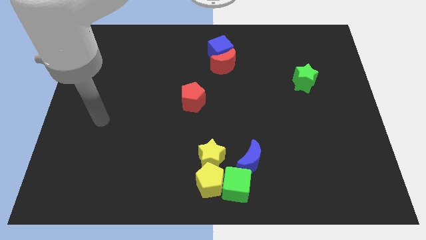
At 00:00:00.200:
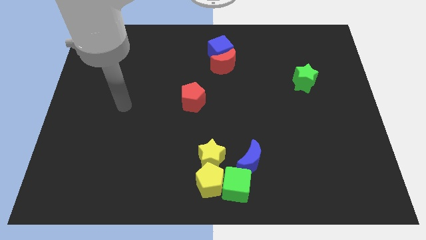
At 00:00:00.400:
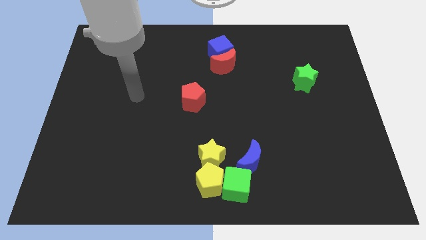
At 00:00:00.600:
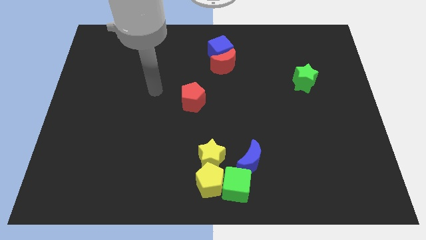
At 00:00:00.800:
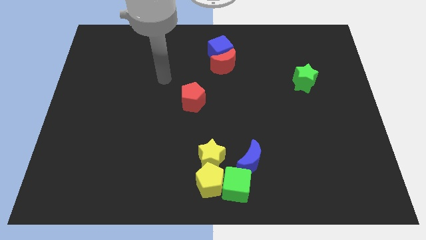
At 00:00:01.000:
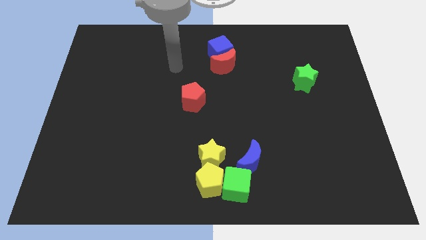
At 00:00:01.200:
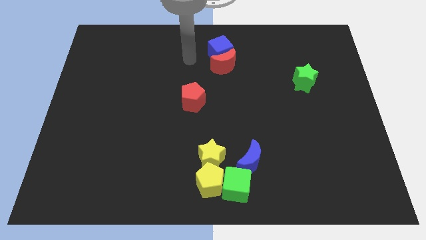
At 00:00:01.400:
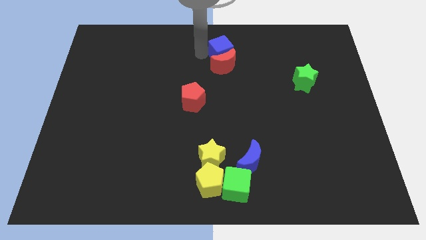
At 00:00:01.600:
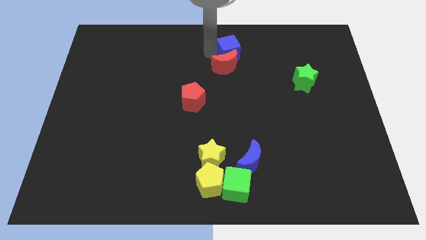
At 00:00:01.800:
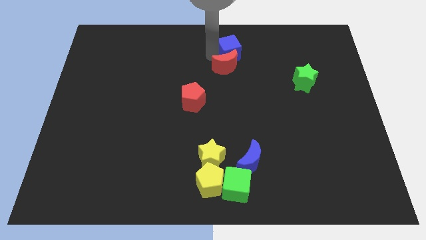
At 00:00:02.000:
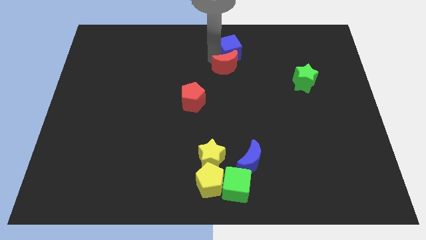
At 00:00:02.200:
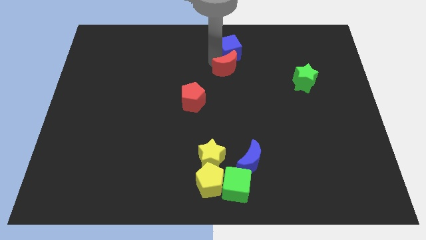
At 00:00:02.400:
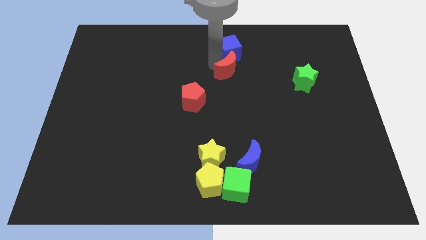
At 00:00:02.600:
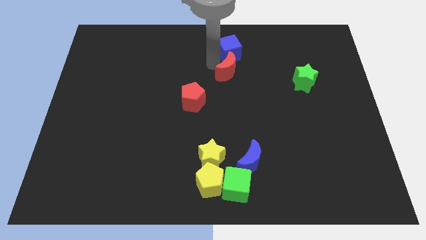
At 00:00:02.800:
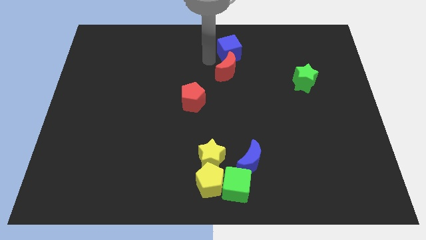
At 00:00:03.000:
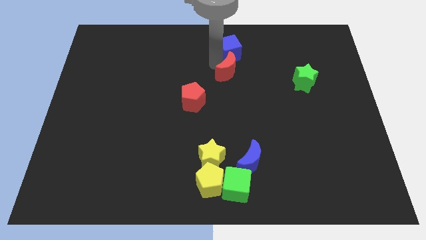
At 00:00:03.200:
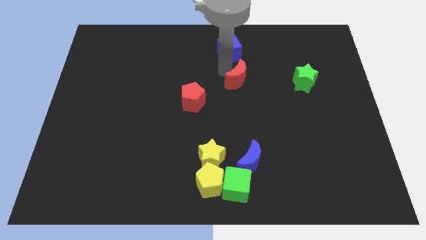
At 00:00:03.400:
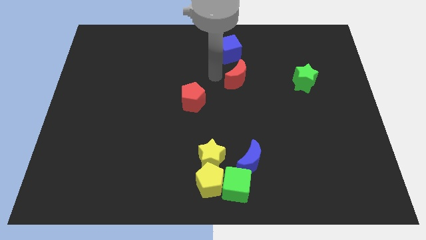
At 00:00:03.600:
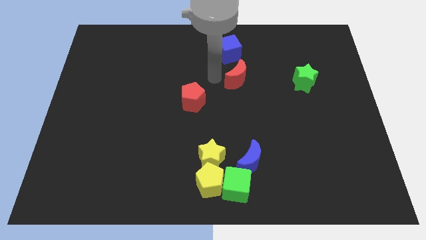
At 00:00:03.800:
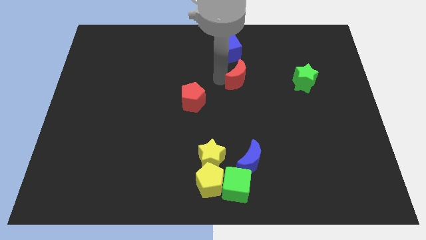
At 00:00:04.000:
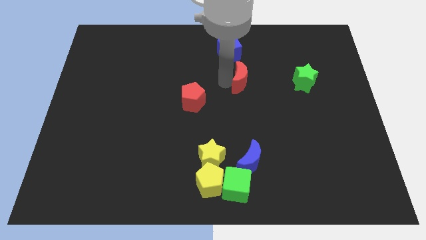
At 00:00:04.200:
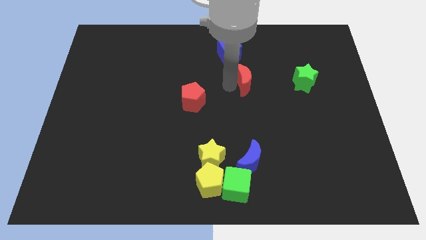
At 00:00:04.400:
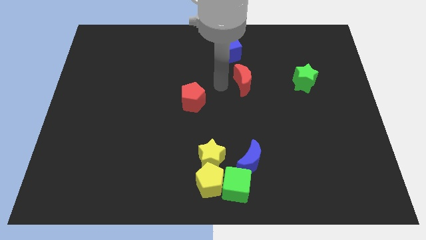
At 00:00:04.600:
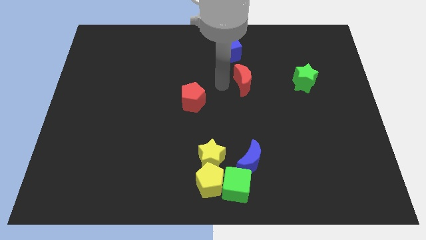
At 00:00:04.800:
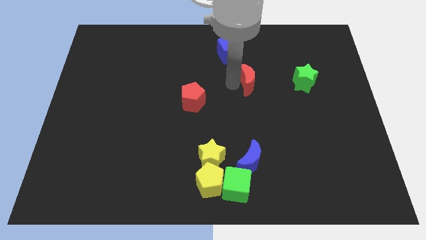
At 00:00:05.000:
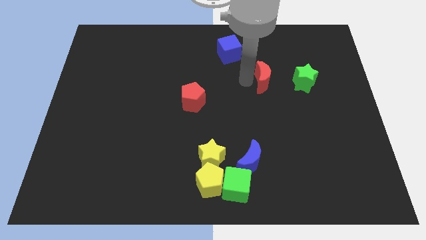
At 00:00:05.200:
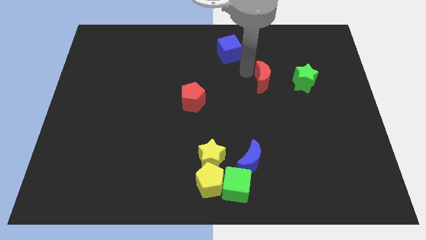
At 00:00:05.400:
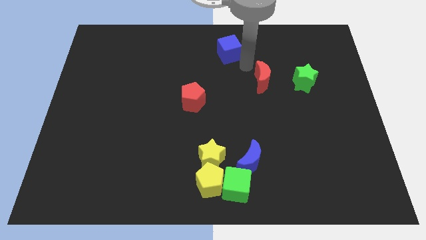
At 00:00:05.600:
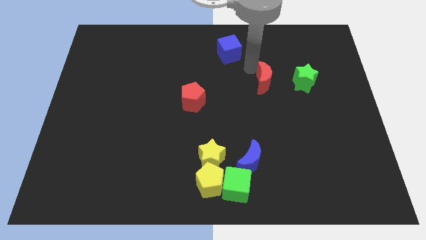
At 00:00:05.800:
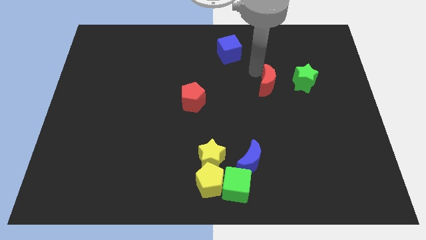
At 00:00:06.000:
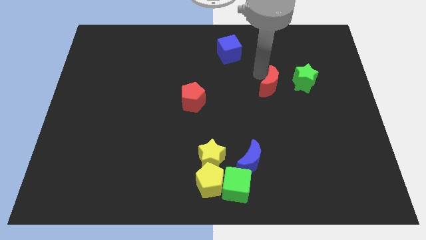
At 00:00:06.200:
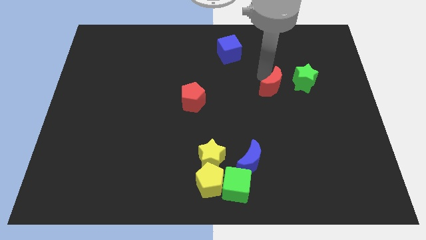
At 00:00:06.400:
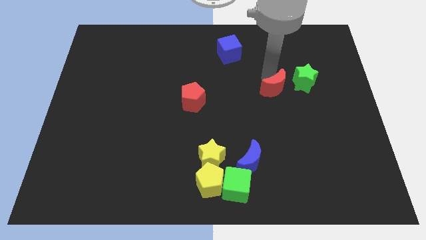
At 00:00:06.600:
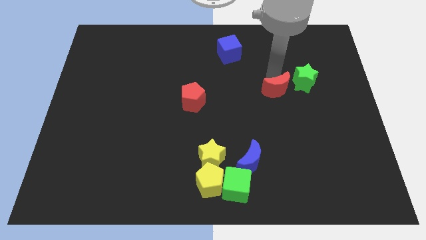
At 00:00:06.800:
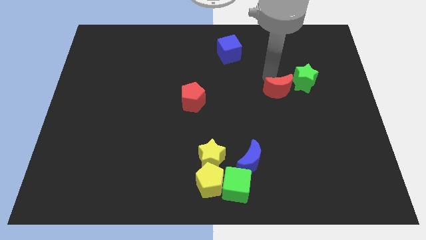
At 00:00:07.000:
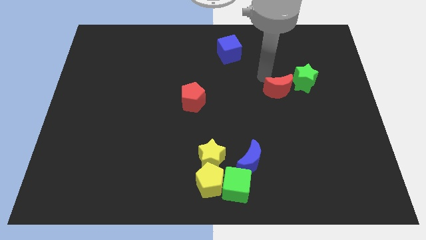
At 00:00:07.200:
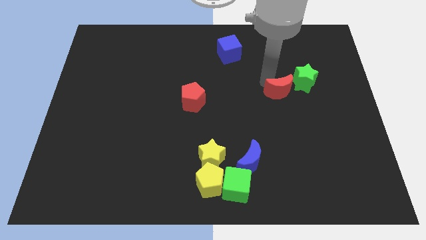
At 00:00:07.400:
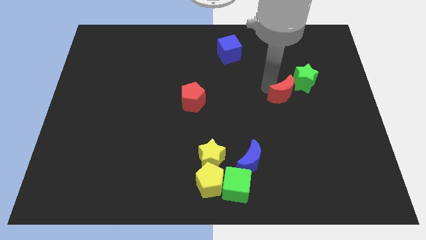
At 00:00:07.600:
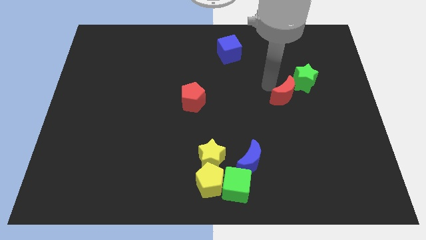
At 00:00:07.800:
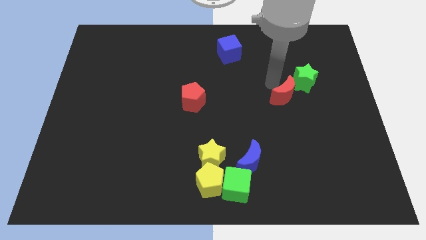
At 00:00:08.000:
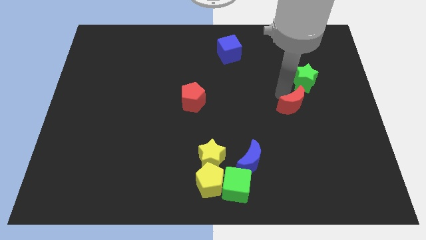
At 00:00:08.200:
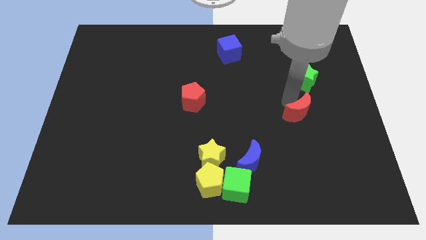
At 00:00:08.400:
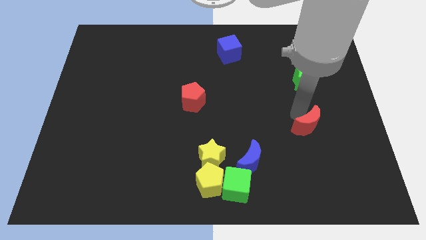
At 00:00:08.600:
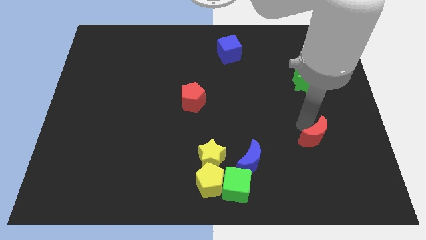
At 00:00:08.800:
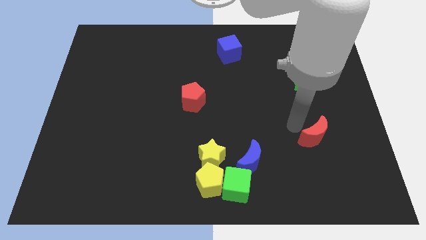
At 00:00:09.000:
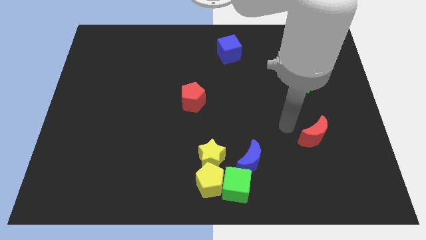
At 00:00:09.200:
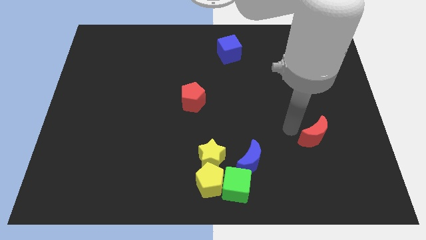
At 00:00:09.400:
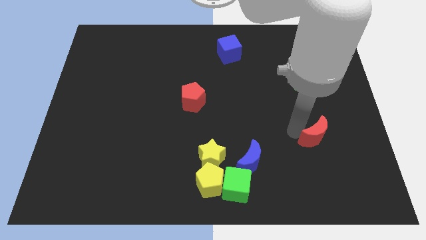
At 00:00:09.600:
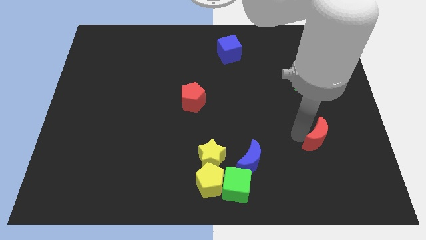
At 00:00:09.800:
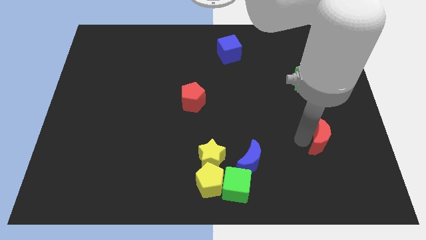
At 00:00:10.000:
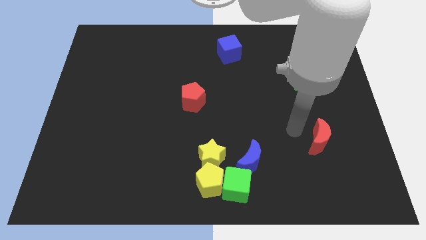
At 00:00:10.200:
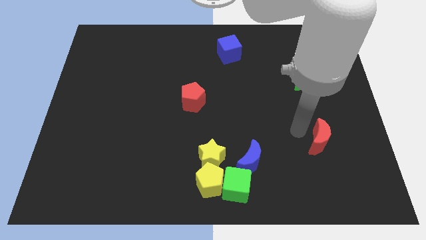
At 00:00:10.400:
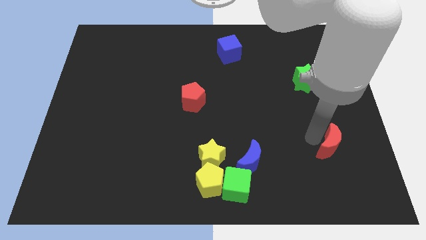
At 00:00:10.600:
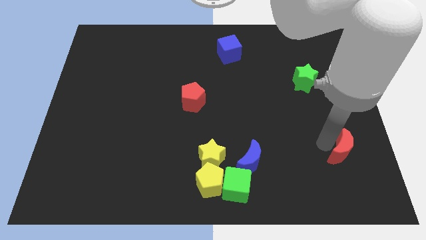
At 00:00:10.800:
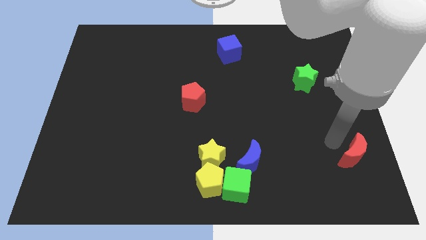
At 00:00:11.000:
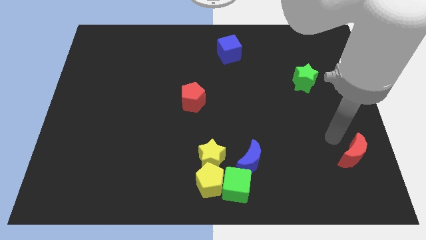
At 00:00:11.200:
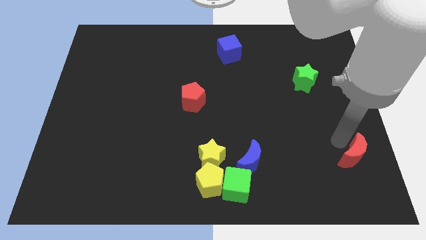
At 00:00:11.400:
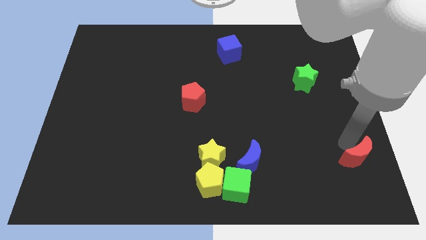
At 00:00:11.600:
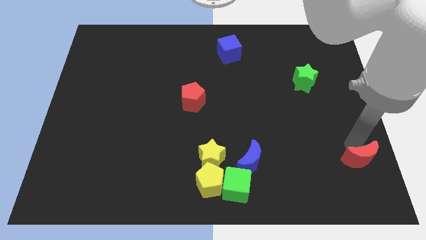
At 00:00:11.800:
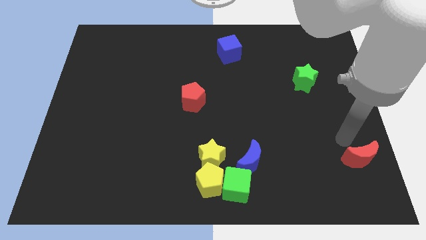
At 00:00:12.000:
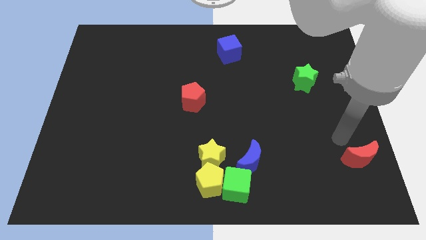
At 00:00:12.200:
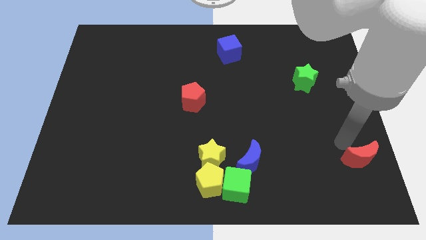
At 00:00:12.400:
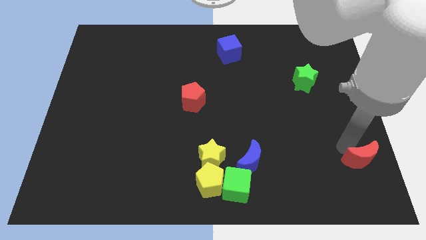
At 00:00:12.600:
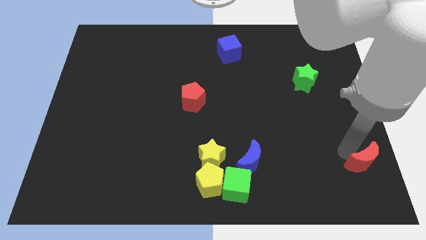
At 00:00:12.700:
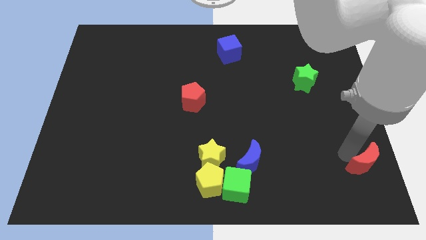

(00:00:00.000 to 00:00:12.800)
slide the red moon to the lower right corner
